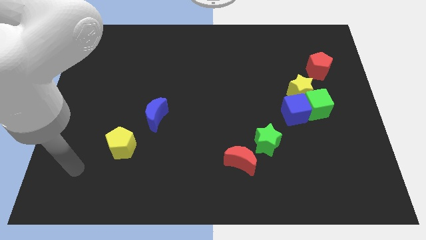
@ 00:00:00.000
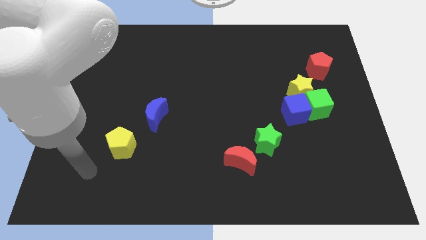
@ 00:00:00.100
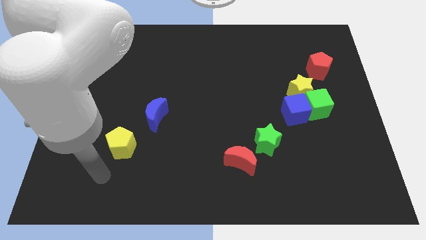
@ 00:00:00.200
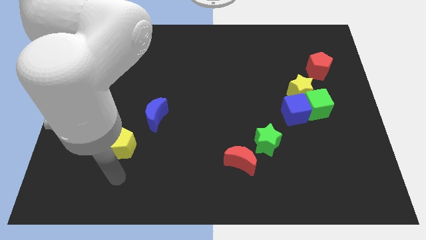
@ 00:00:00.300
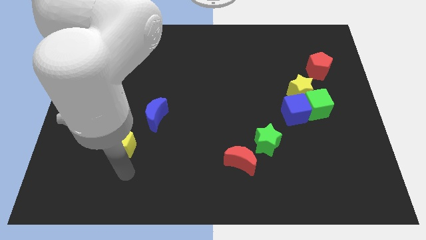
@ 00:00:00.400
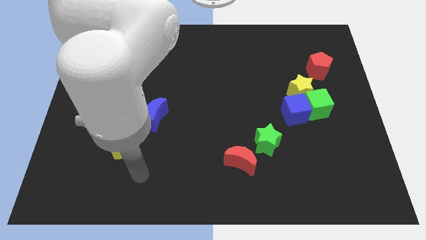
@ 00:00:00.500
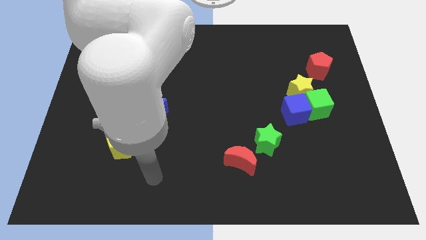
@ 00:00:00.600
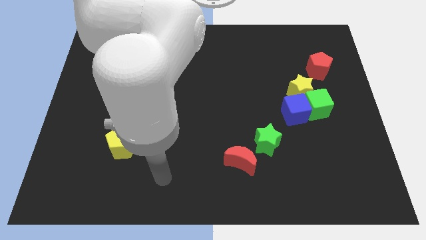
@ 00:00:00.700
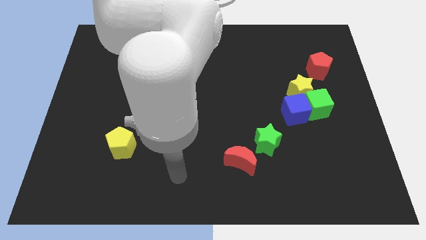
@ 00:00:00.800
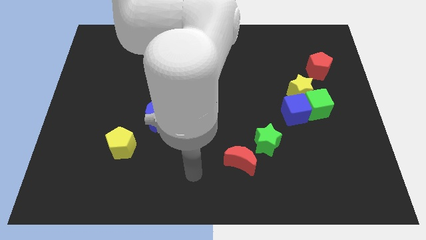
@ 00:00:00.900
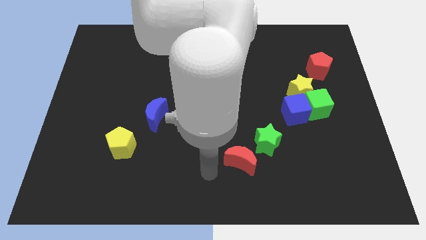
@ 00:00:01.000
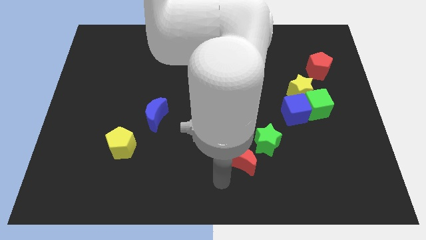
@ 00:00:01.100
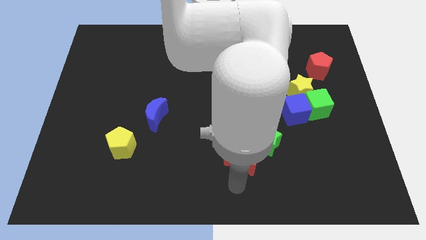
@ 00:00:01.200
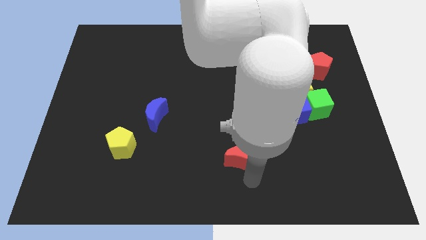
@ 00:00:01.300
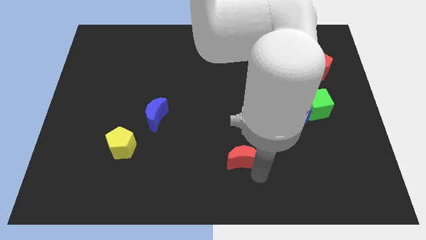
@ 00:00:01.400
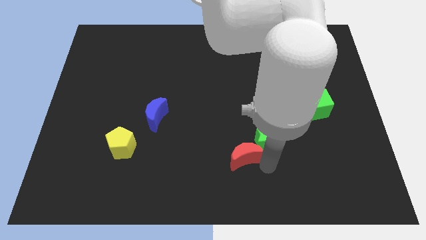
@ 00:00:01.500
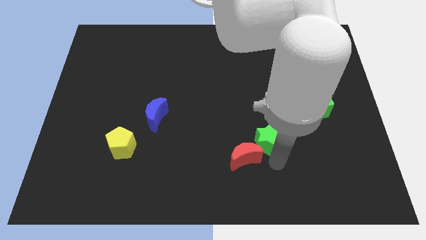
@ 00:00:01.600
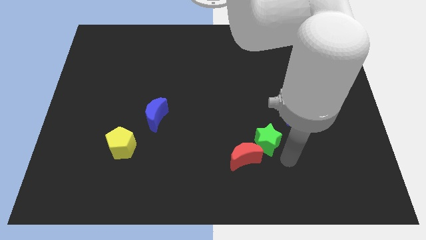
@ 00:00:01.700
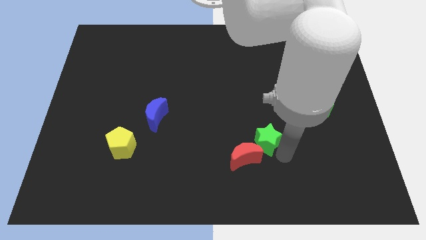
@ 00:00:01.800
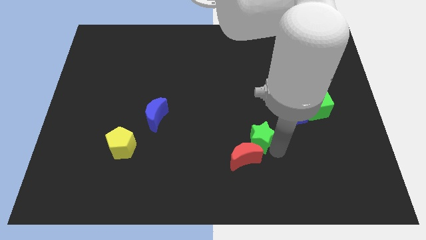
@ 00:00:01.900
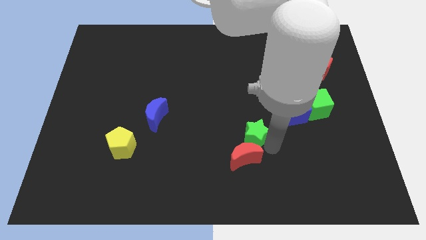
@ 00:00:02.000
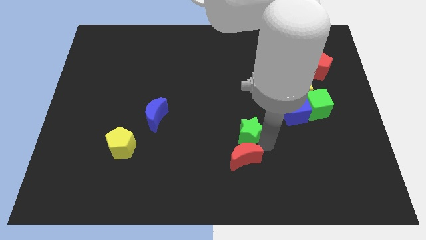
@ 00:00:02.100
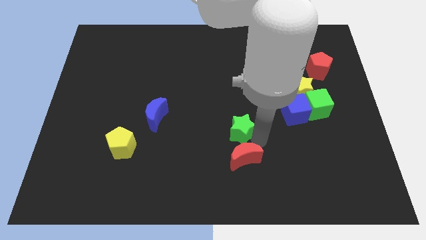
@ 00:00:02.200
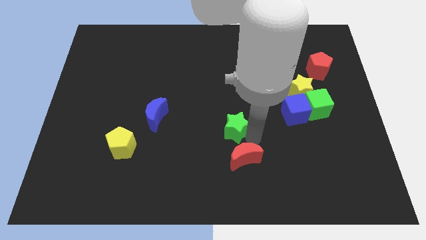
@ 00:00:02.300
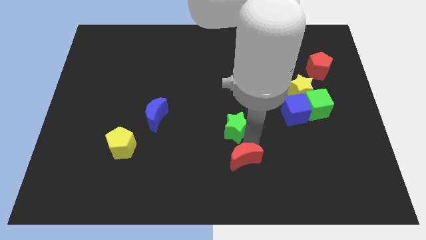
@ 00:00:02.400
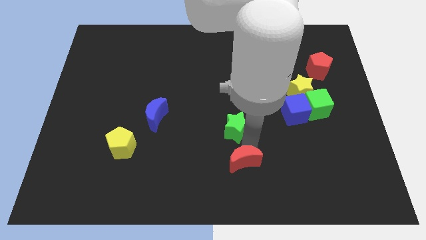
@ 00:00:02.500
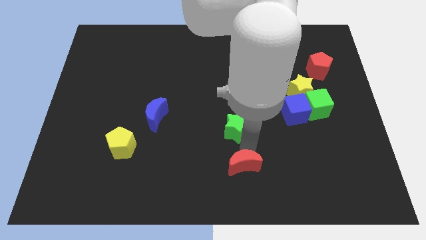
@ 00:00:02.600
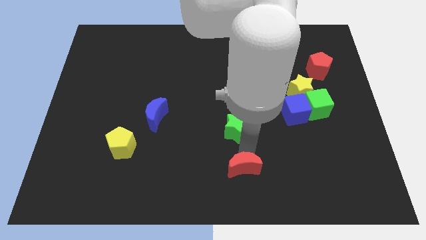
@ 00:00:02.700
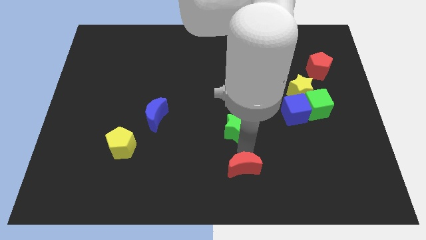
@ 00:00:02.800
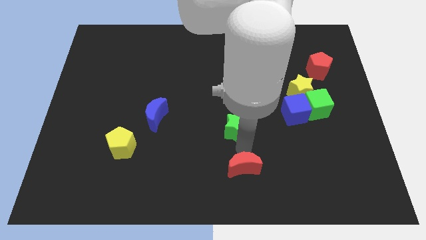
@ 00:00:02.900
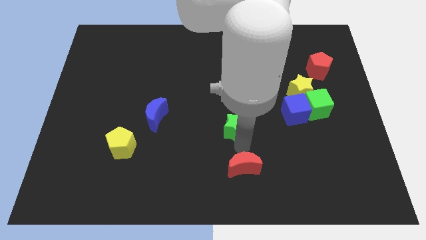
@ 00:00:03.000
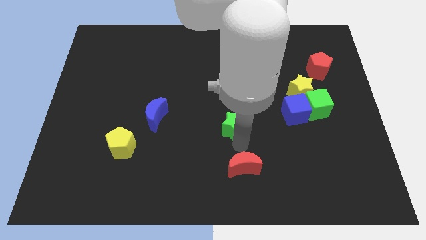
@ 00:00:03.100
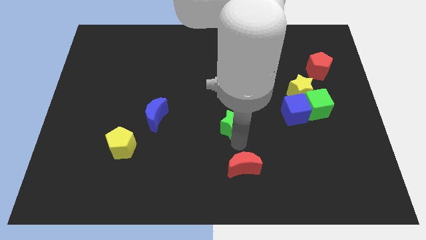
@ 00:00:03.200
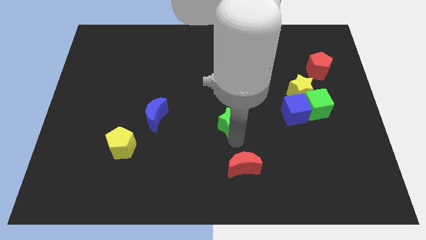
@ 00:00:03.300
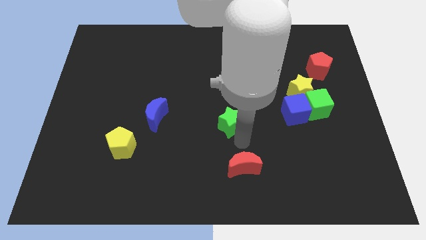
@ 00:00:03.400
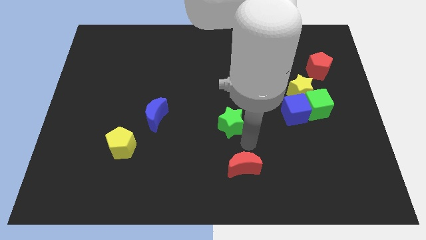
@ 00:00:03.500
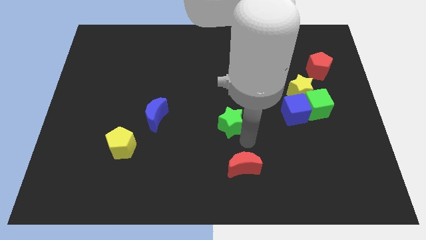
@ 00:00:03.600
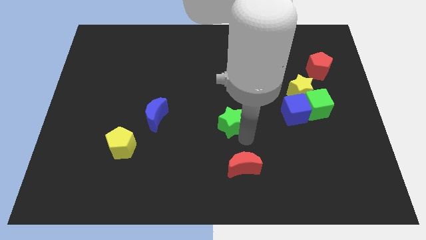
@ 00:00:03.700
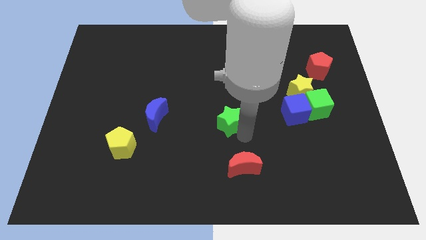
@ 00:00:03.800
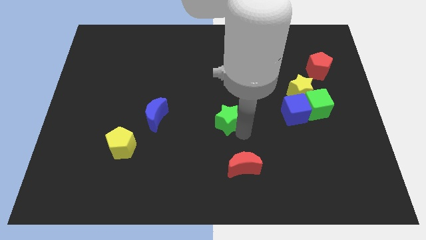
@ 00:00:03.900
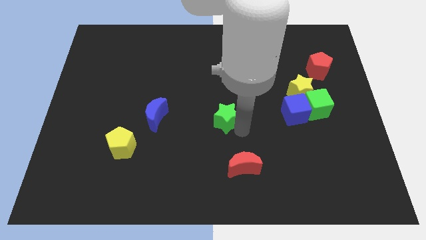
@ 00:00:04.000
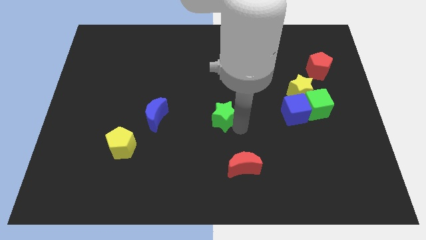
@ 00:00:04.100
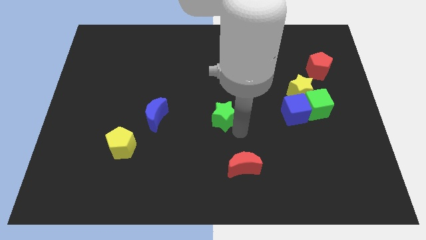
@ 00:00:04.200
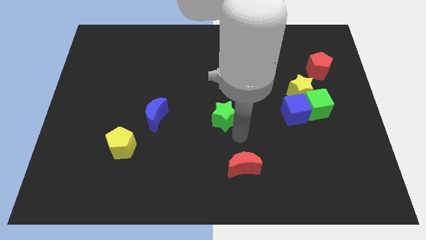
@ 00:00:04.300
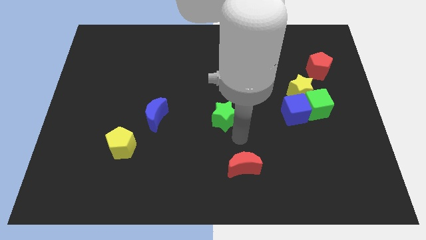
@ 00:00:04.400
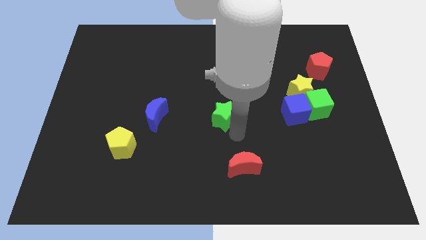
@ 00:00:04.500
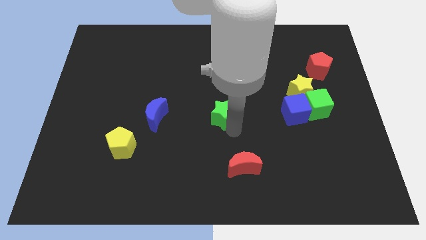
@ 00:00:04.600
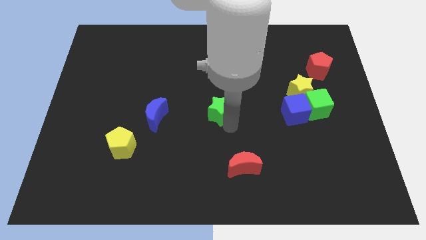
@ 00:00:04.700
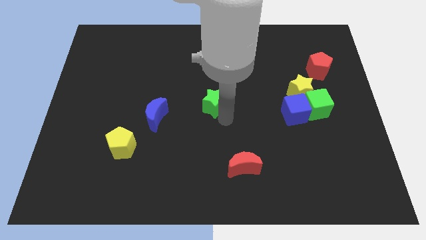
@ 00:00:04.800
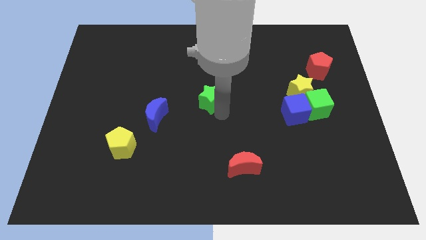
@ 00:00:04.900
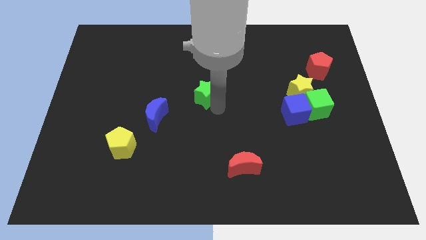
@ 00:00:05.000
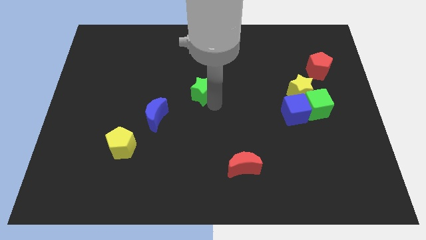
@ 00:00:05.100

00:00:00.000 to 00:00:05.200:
move the green star upwards and left diagonally

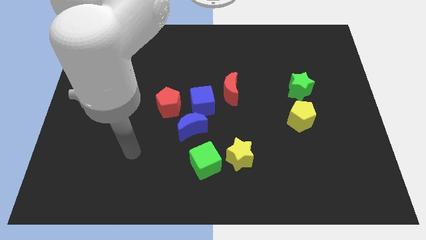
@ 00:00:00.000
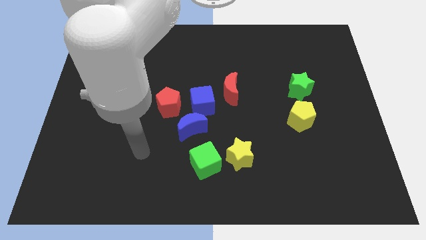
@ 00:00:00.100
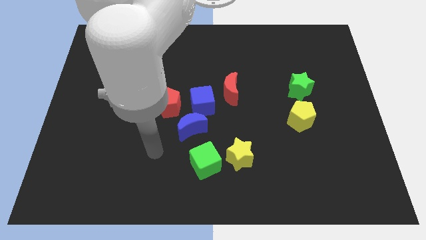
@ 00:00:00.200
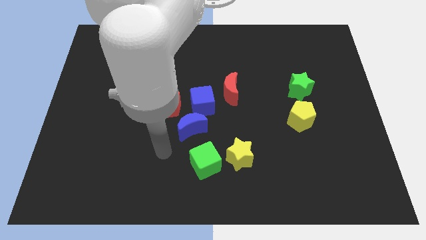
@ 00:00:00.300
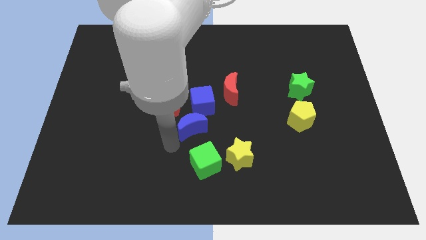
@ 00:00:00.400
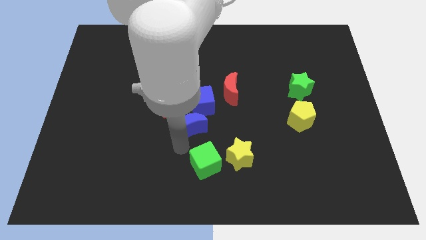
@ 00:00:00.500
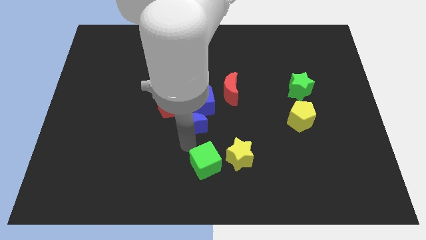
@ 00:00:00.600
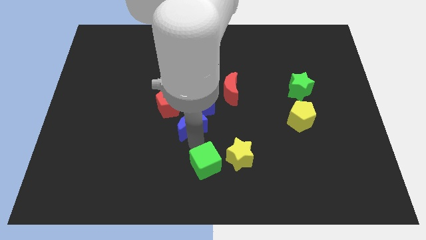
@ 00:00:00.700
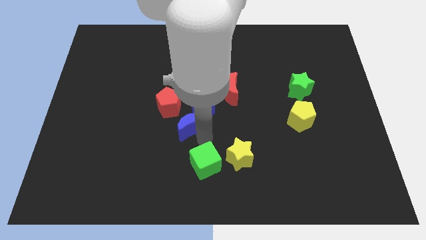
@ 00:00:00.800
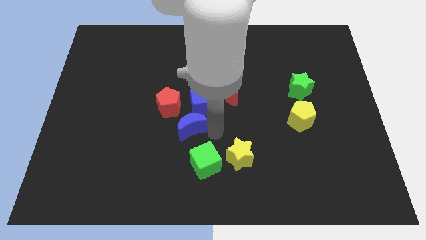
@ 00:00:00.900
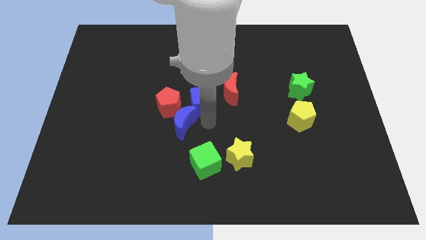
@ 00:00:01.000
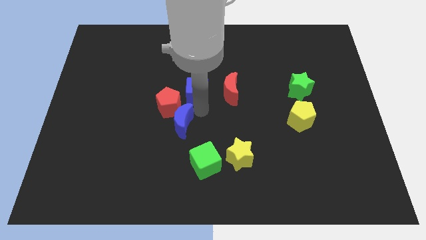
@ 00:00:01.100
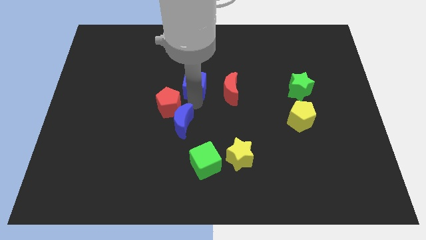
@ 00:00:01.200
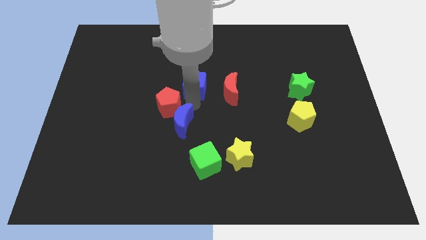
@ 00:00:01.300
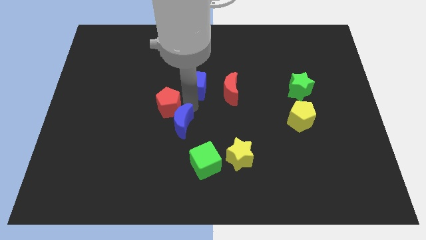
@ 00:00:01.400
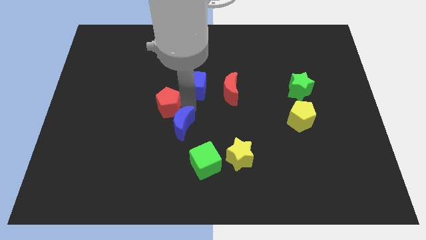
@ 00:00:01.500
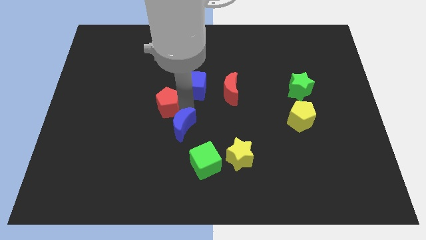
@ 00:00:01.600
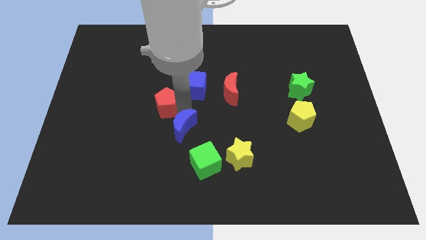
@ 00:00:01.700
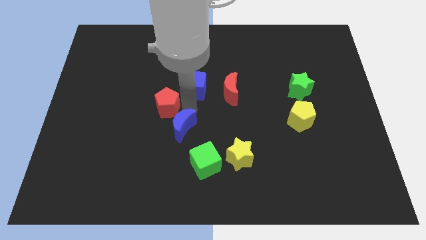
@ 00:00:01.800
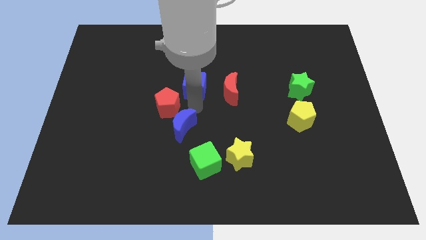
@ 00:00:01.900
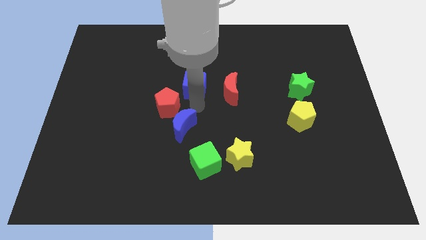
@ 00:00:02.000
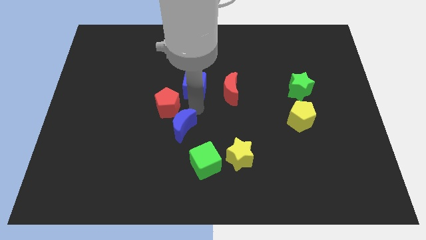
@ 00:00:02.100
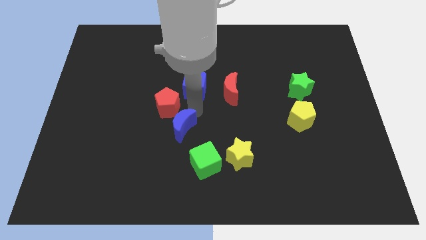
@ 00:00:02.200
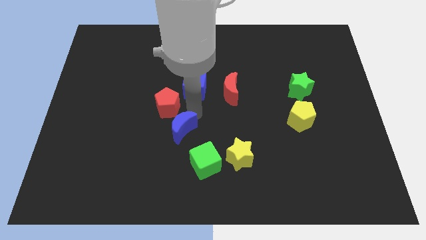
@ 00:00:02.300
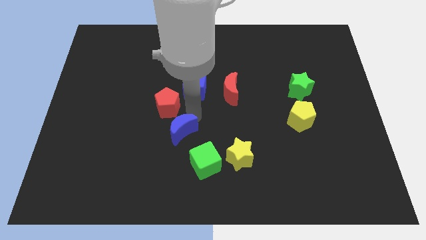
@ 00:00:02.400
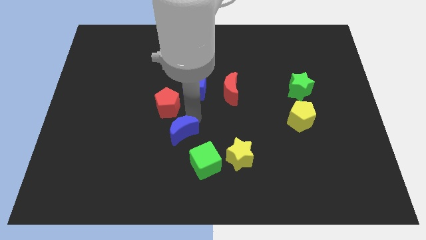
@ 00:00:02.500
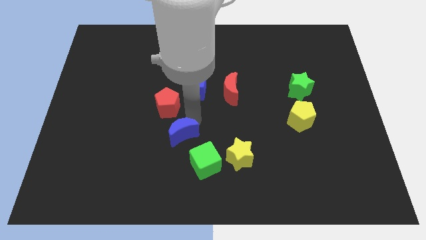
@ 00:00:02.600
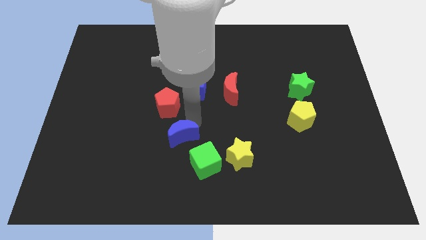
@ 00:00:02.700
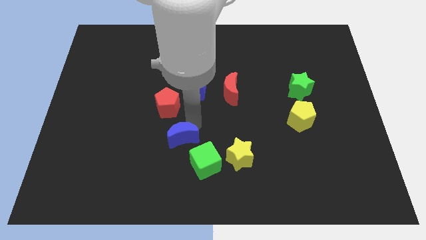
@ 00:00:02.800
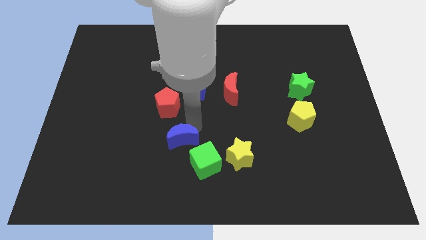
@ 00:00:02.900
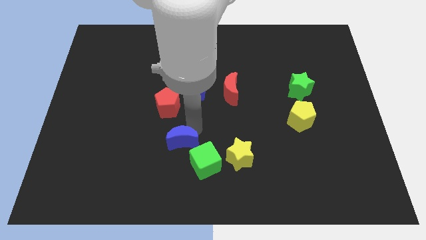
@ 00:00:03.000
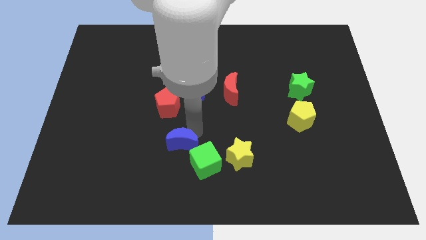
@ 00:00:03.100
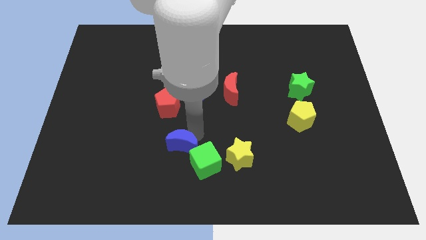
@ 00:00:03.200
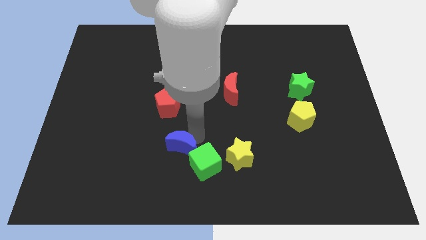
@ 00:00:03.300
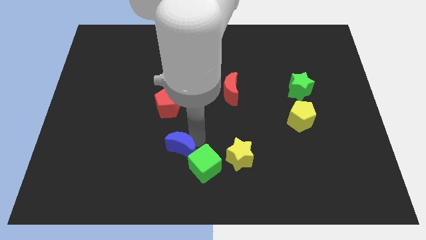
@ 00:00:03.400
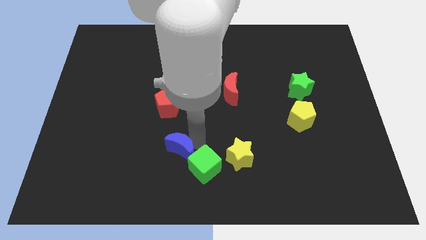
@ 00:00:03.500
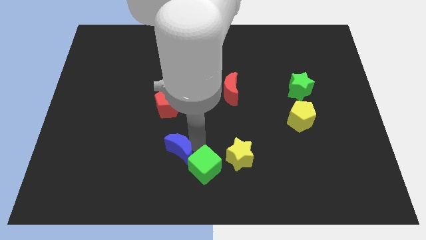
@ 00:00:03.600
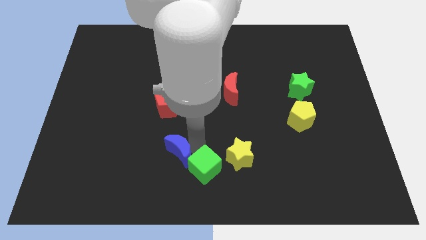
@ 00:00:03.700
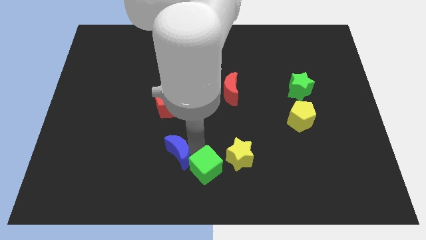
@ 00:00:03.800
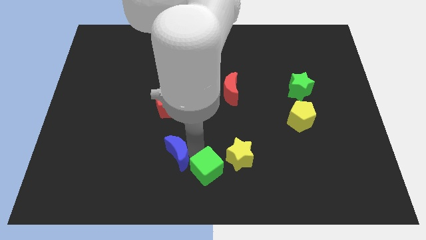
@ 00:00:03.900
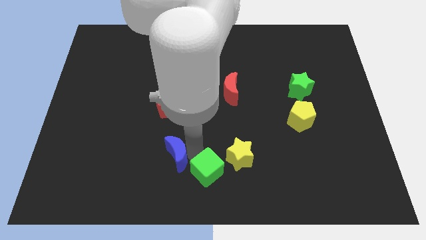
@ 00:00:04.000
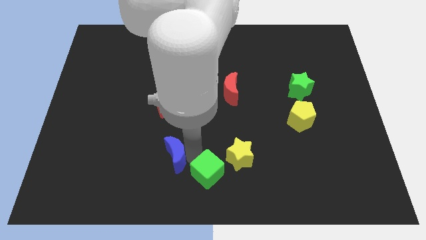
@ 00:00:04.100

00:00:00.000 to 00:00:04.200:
move the blue moon downwards and left a bit
